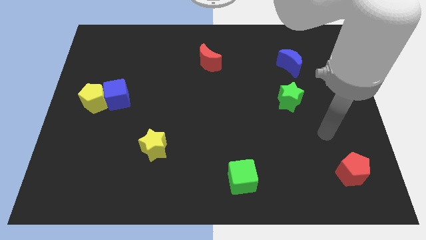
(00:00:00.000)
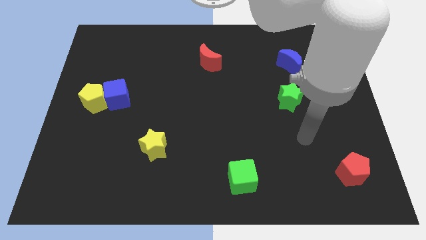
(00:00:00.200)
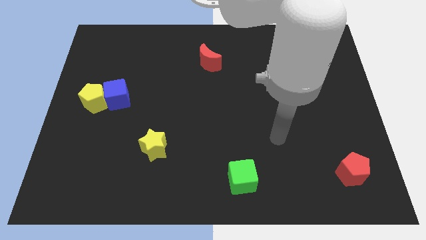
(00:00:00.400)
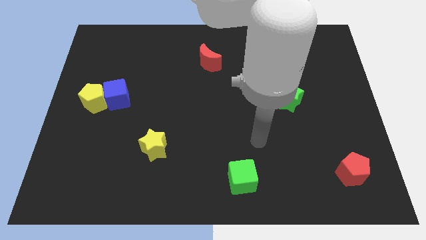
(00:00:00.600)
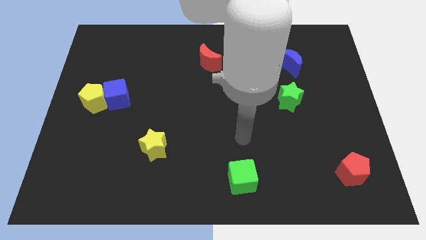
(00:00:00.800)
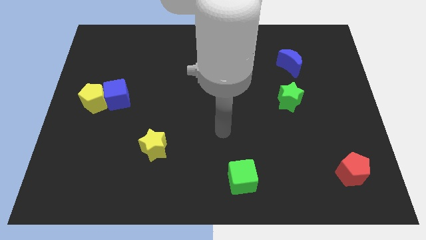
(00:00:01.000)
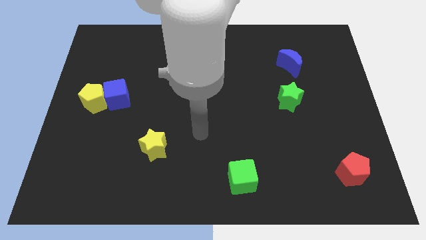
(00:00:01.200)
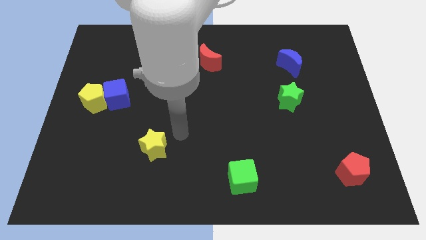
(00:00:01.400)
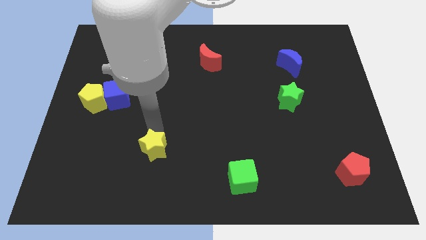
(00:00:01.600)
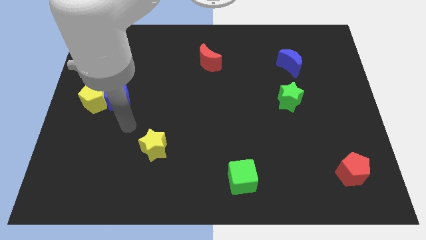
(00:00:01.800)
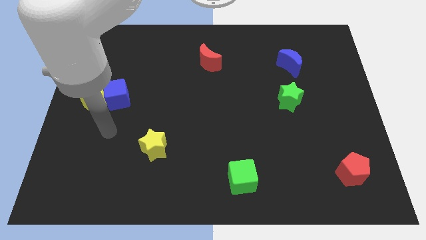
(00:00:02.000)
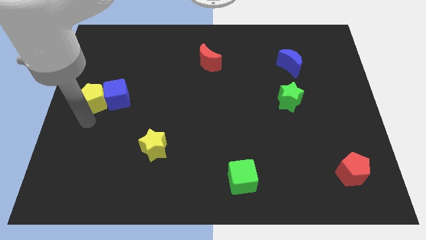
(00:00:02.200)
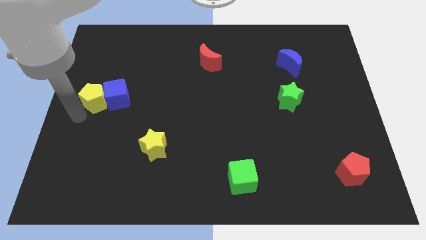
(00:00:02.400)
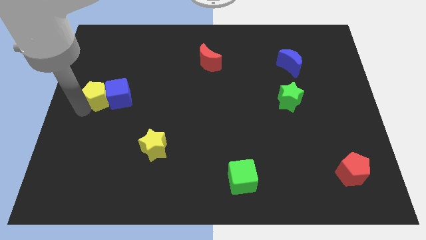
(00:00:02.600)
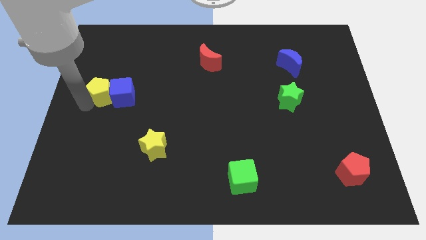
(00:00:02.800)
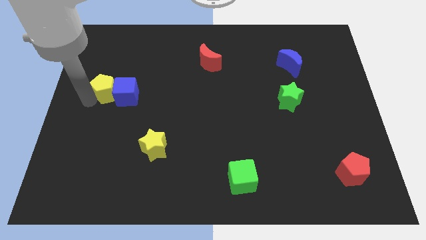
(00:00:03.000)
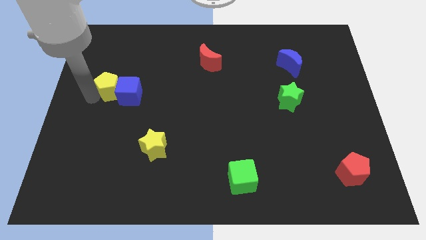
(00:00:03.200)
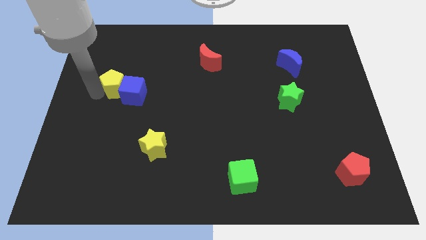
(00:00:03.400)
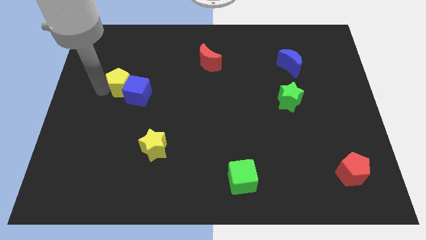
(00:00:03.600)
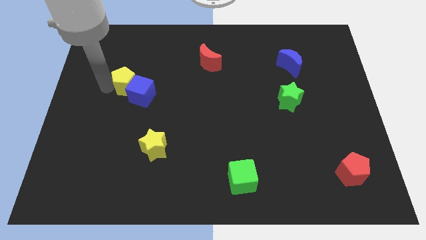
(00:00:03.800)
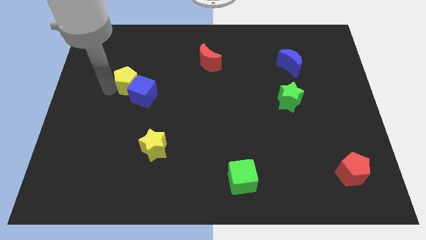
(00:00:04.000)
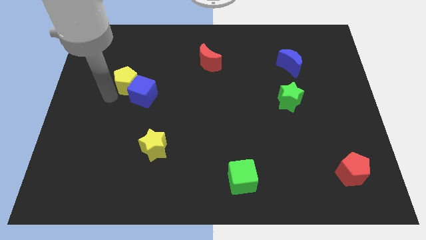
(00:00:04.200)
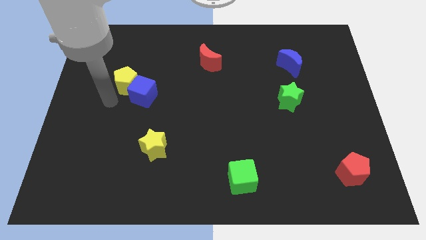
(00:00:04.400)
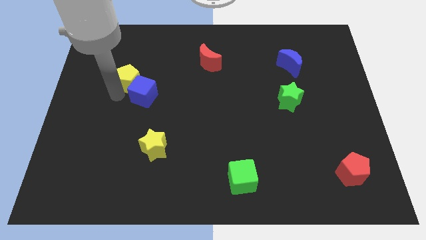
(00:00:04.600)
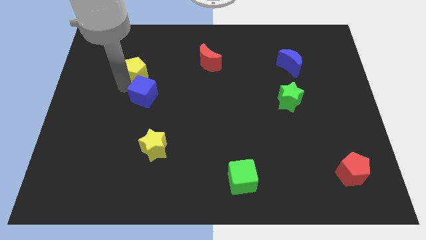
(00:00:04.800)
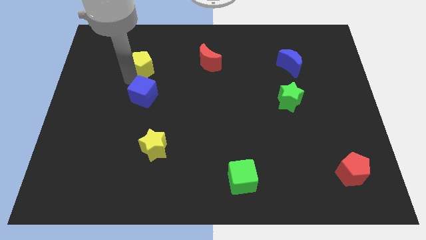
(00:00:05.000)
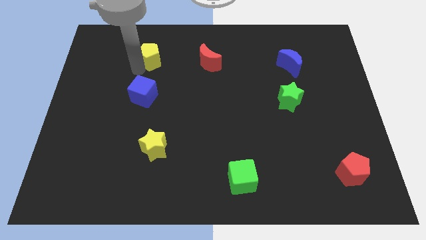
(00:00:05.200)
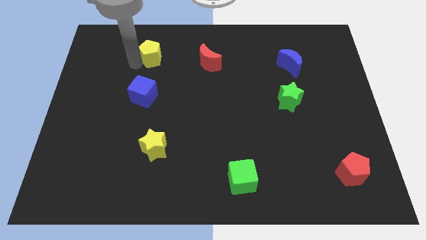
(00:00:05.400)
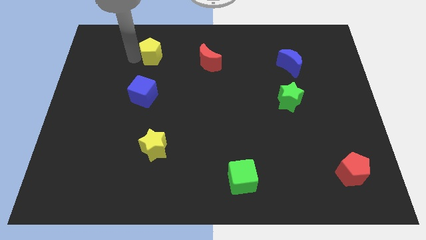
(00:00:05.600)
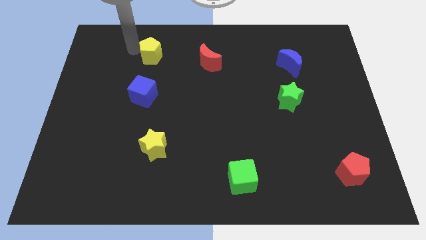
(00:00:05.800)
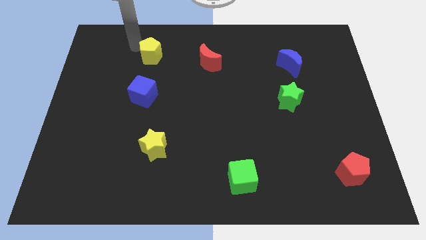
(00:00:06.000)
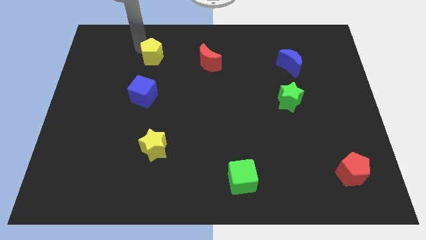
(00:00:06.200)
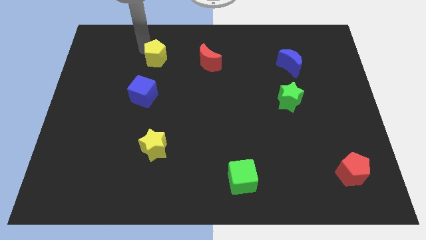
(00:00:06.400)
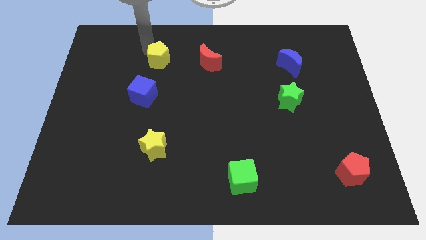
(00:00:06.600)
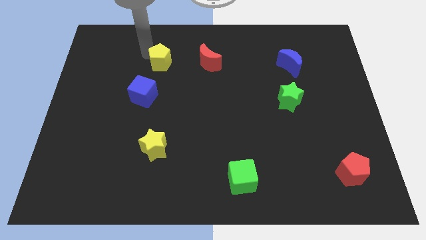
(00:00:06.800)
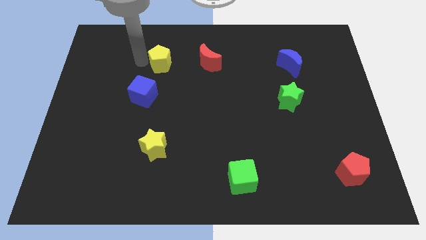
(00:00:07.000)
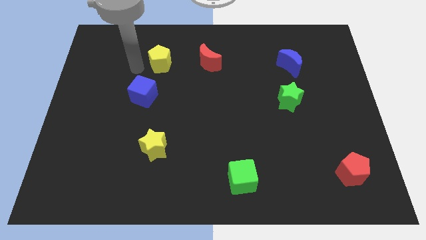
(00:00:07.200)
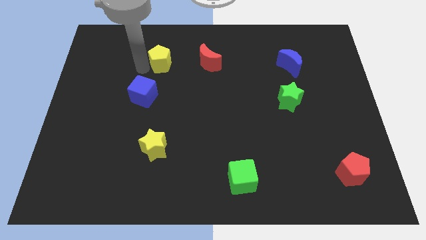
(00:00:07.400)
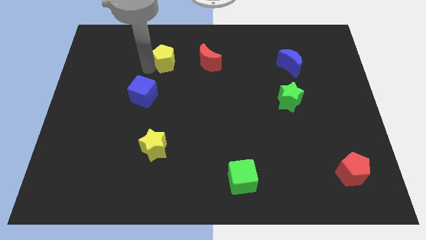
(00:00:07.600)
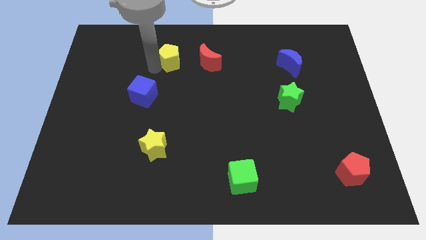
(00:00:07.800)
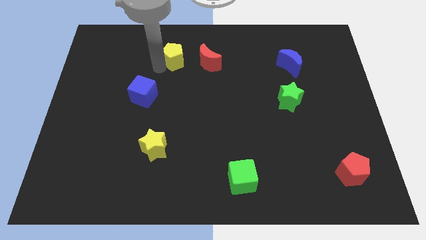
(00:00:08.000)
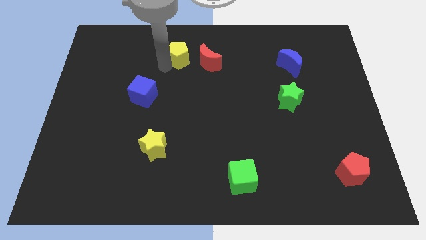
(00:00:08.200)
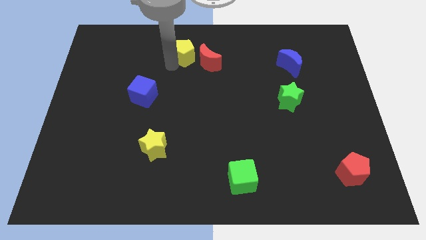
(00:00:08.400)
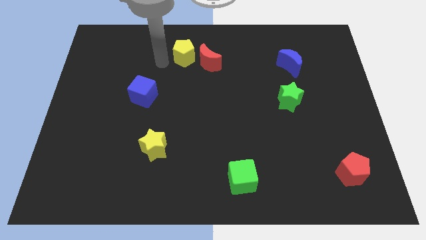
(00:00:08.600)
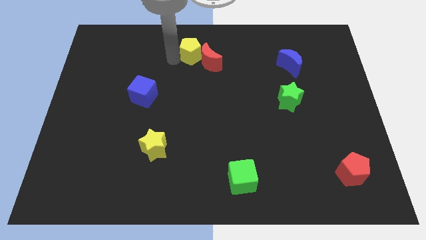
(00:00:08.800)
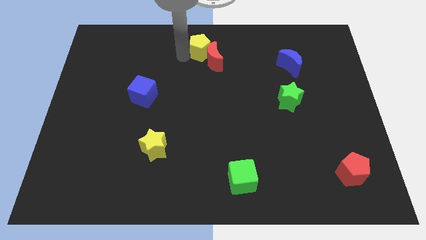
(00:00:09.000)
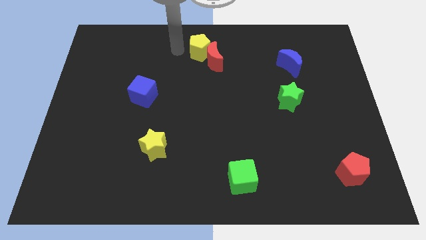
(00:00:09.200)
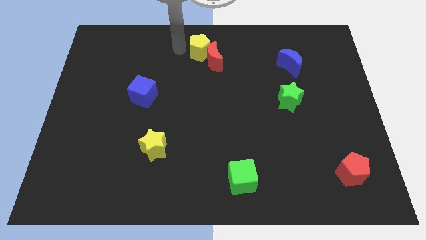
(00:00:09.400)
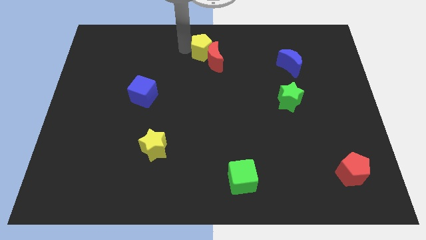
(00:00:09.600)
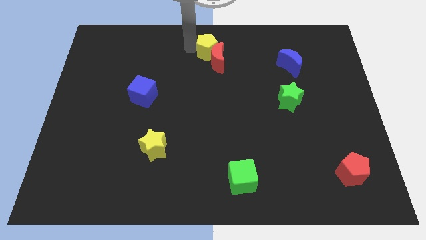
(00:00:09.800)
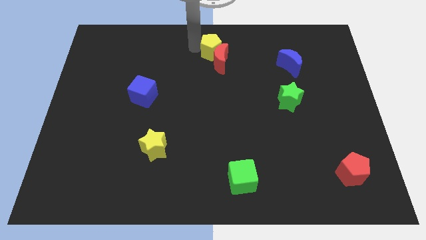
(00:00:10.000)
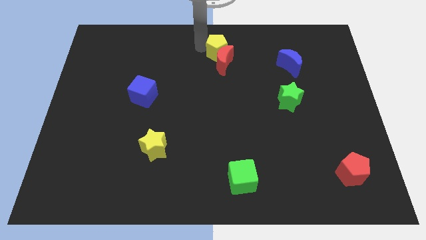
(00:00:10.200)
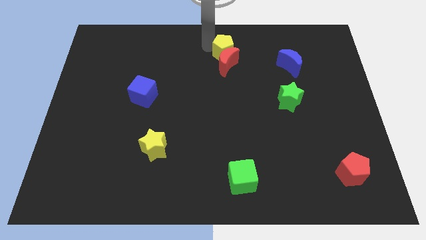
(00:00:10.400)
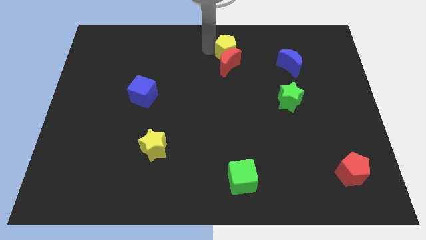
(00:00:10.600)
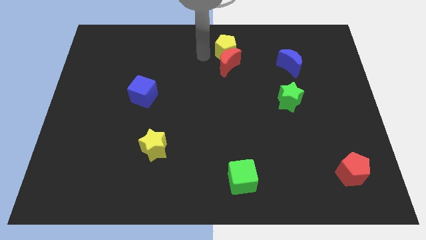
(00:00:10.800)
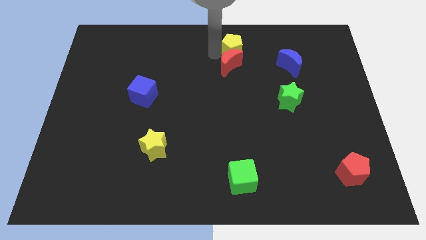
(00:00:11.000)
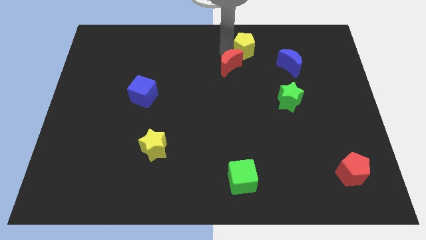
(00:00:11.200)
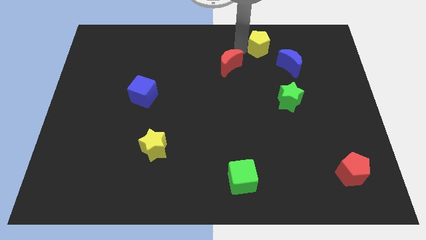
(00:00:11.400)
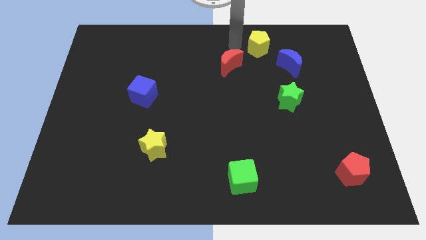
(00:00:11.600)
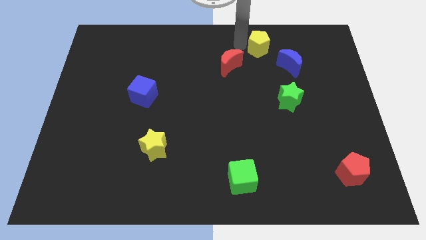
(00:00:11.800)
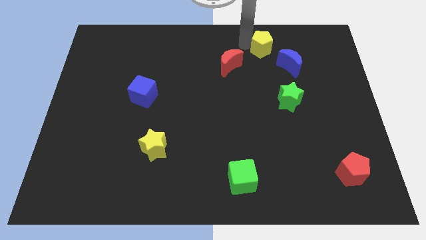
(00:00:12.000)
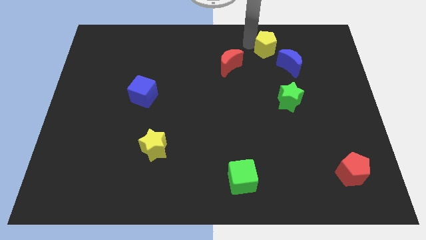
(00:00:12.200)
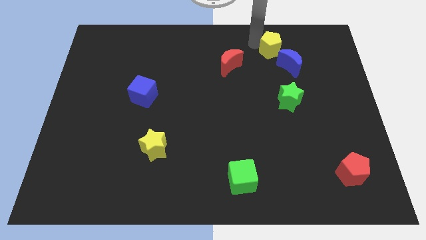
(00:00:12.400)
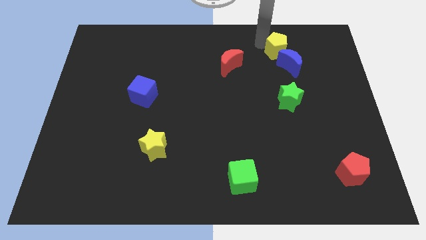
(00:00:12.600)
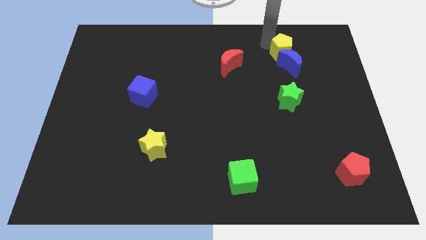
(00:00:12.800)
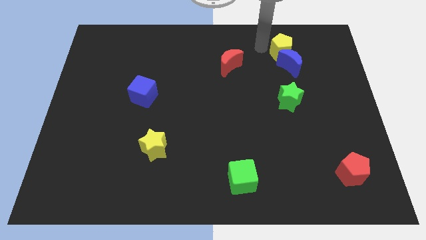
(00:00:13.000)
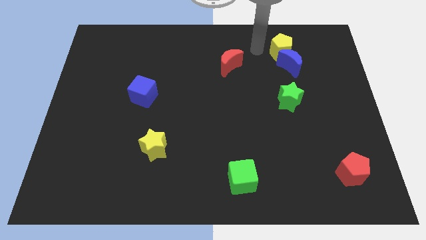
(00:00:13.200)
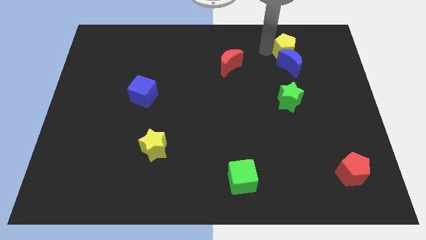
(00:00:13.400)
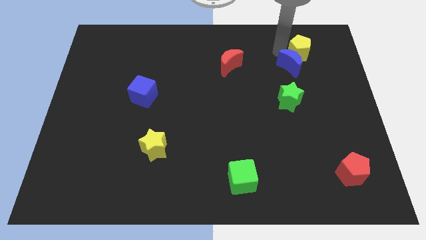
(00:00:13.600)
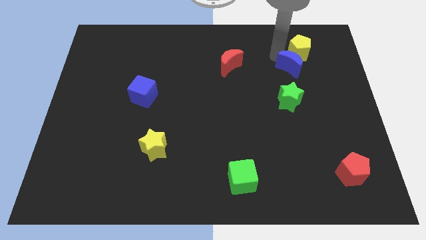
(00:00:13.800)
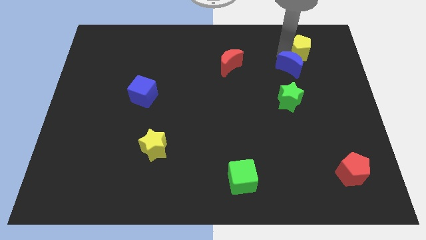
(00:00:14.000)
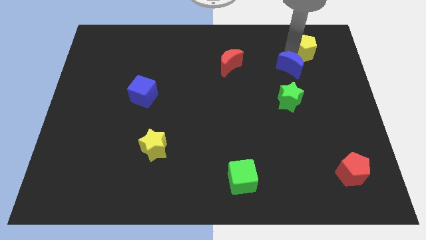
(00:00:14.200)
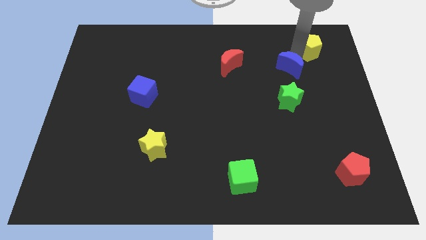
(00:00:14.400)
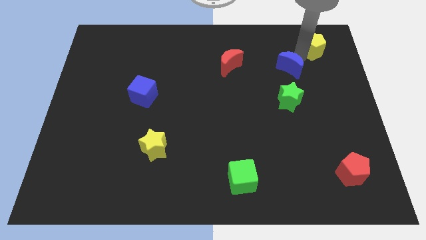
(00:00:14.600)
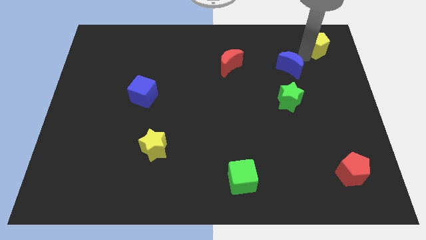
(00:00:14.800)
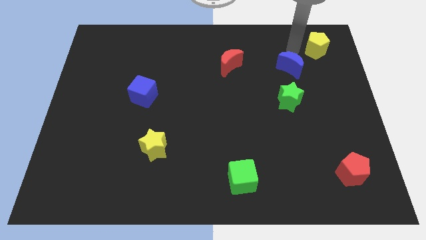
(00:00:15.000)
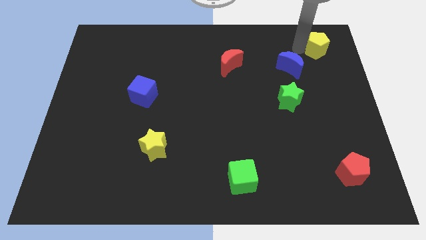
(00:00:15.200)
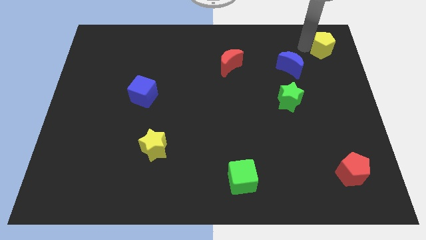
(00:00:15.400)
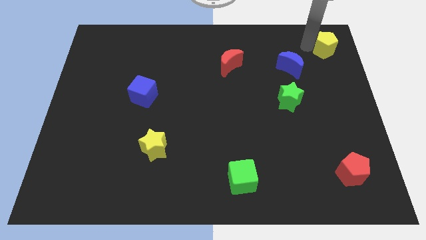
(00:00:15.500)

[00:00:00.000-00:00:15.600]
put the yellow pentagon to the top right
